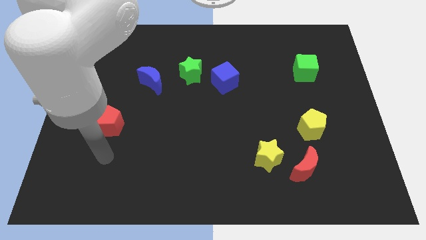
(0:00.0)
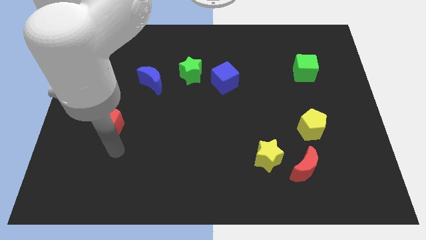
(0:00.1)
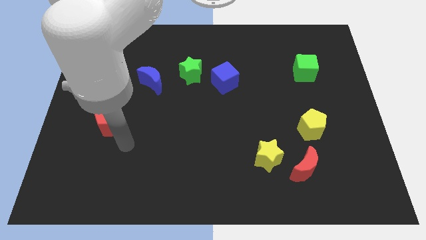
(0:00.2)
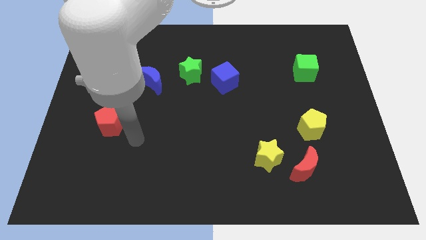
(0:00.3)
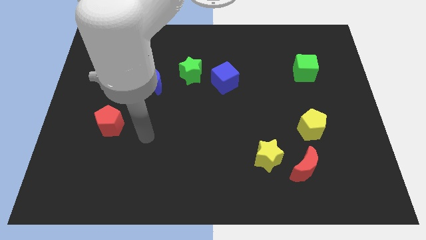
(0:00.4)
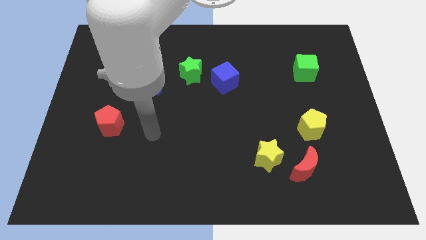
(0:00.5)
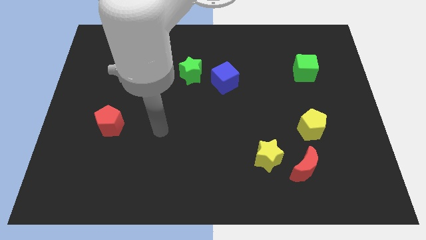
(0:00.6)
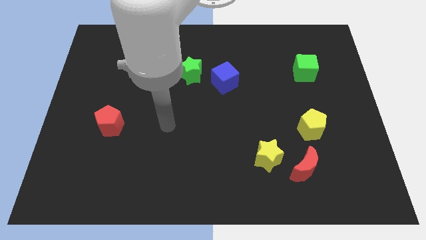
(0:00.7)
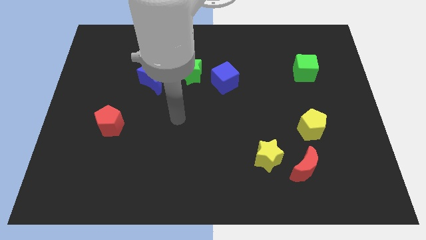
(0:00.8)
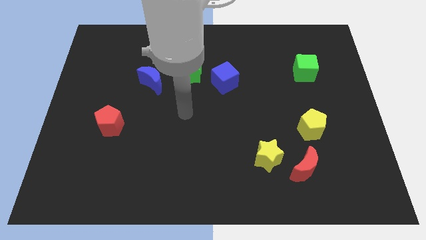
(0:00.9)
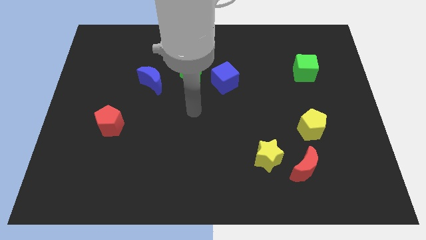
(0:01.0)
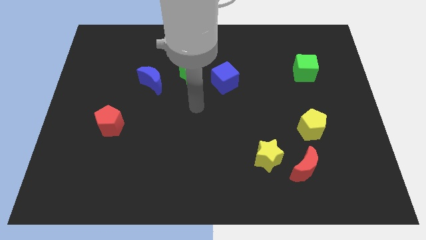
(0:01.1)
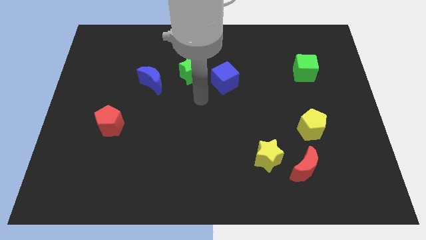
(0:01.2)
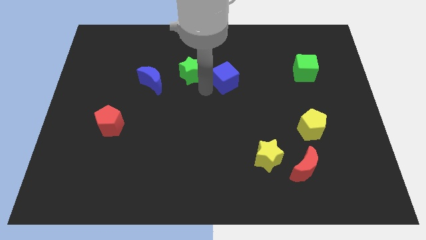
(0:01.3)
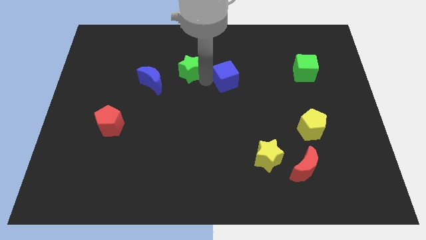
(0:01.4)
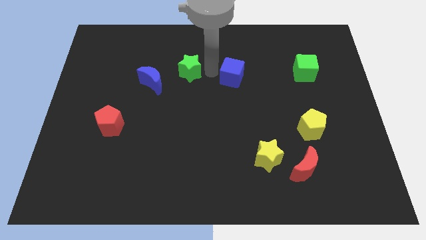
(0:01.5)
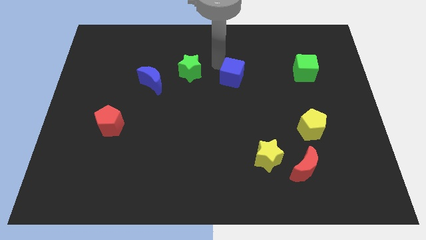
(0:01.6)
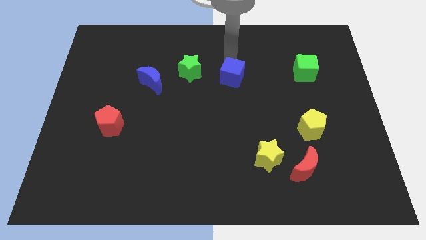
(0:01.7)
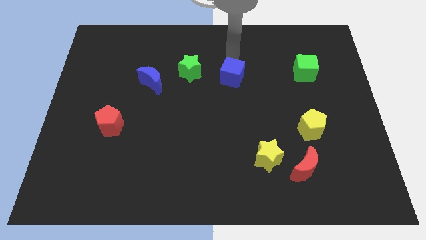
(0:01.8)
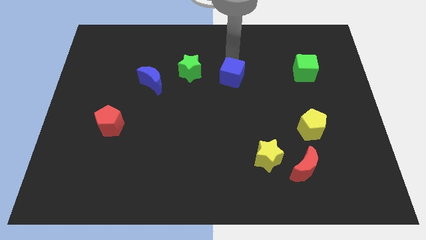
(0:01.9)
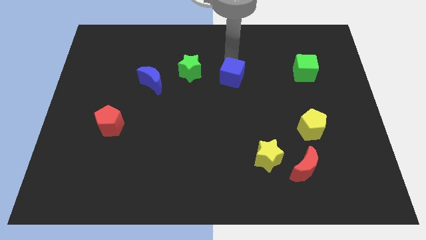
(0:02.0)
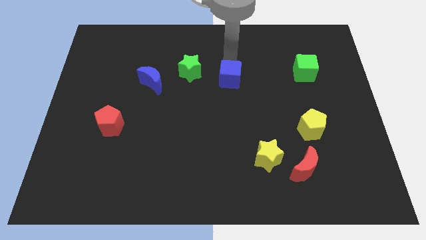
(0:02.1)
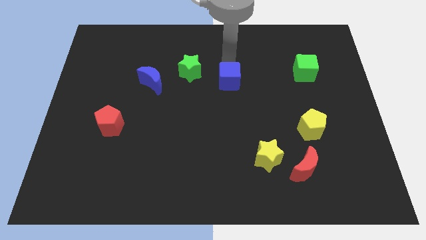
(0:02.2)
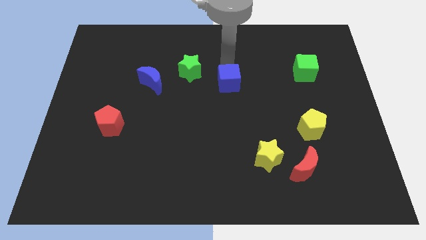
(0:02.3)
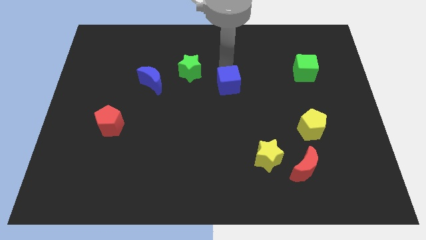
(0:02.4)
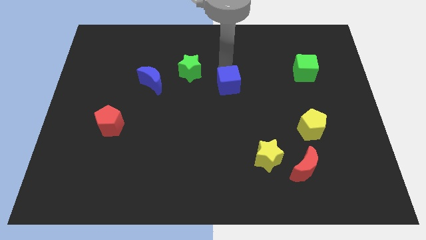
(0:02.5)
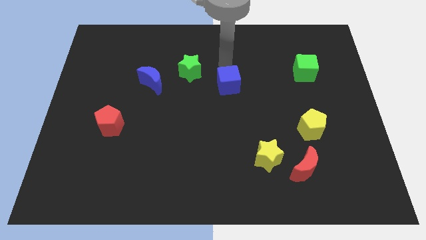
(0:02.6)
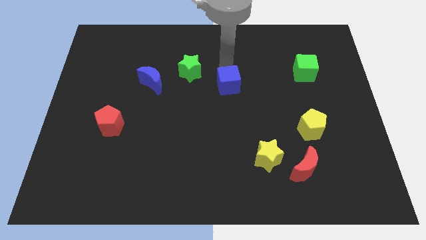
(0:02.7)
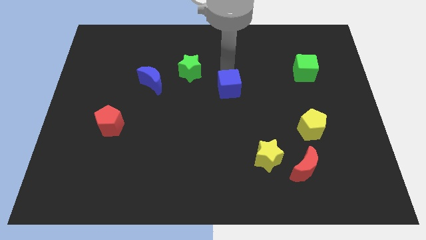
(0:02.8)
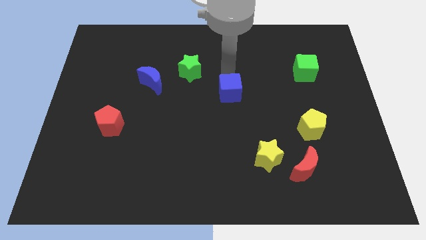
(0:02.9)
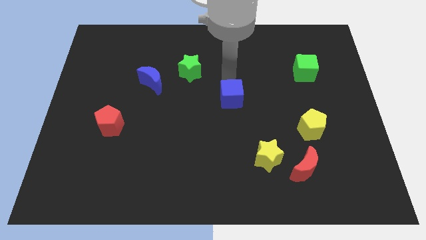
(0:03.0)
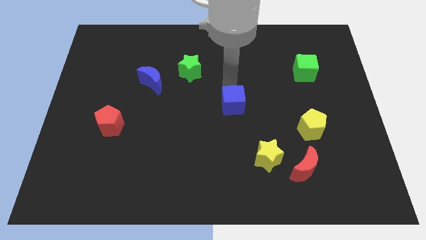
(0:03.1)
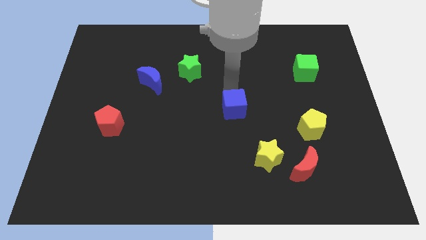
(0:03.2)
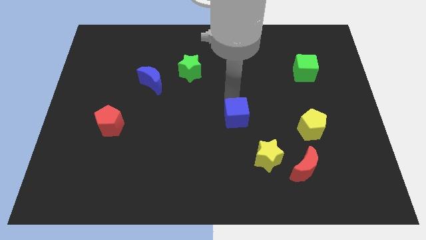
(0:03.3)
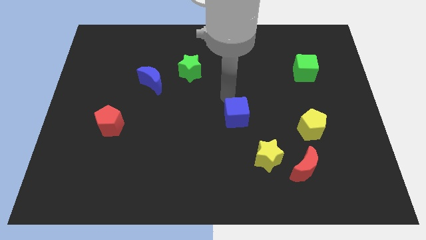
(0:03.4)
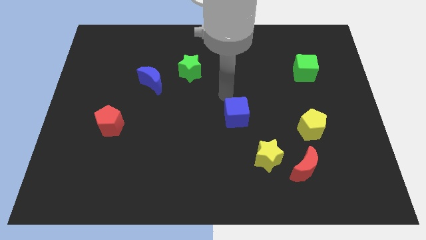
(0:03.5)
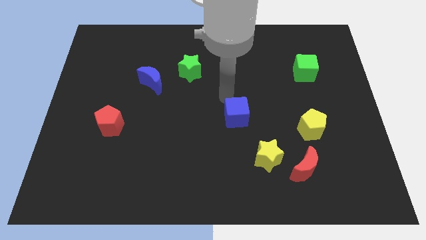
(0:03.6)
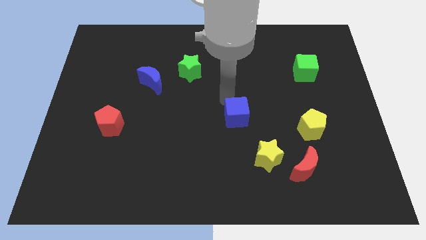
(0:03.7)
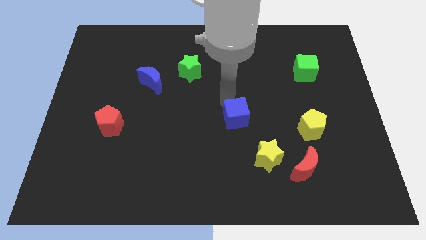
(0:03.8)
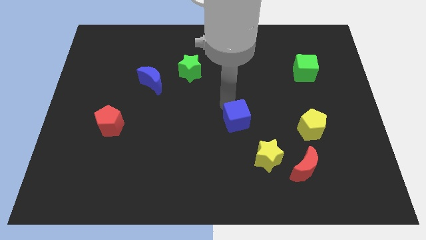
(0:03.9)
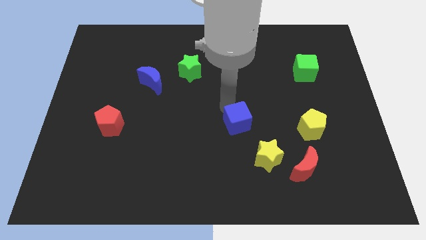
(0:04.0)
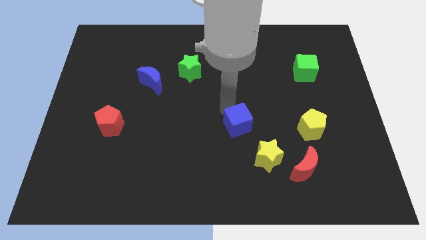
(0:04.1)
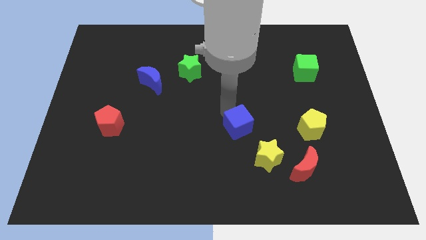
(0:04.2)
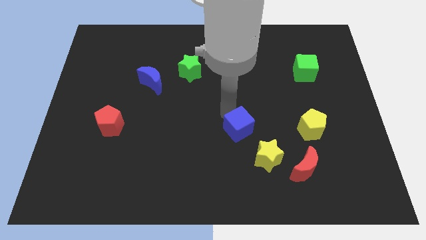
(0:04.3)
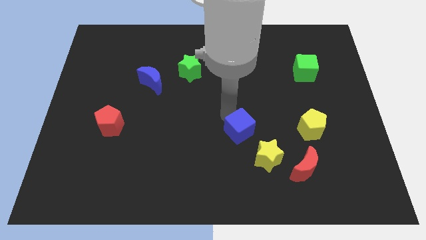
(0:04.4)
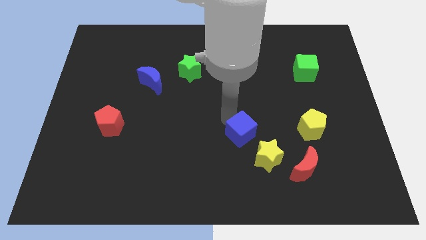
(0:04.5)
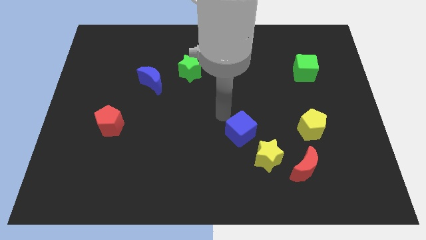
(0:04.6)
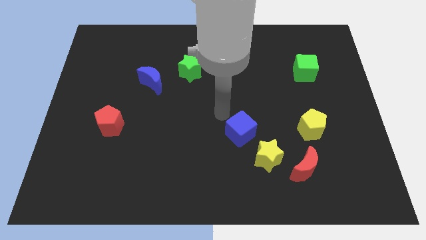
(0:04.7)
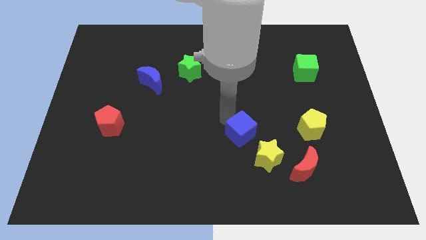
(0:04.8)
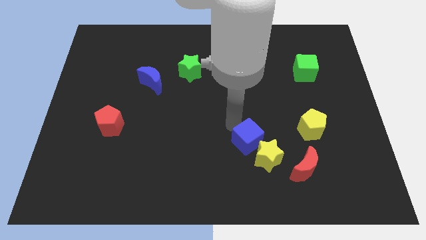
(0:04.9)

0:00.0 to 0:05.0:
push the blue cube towards the yellow star

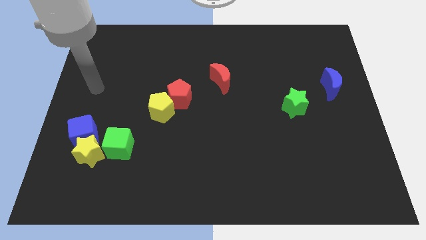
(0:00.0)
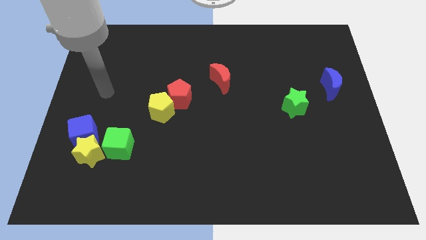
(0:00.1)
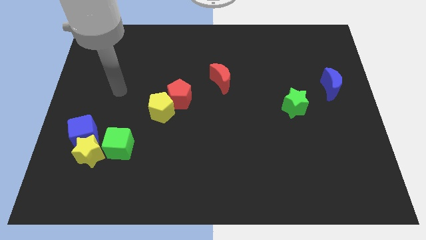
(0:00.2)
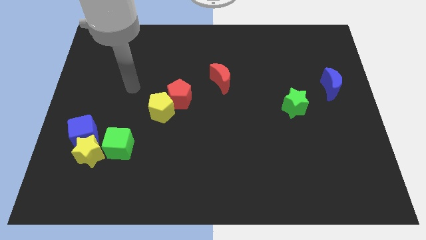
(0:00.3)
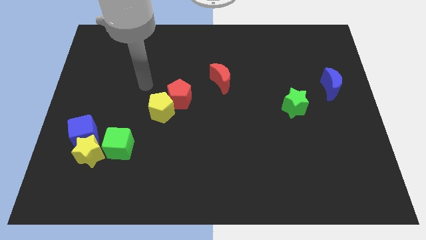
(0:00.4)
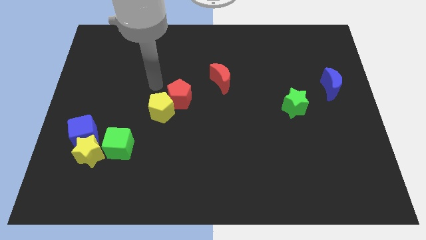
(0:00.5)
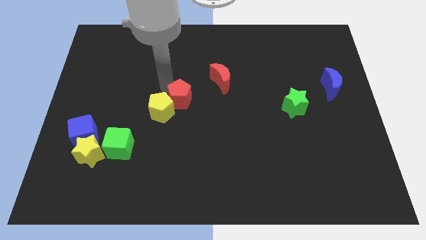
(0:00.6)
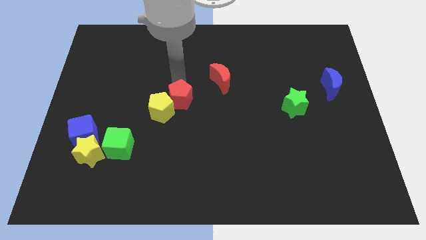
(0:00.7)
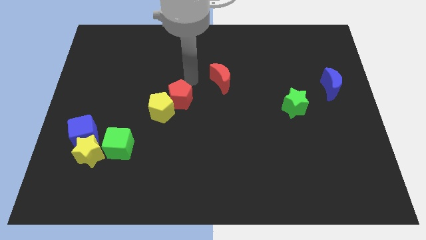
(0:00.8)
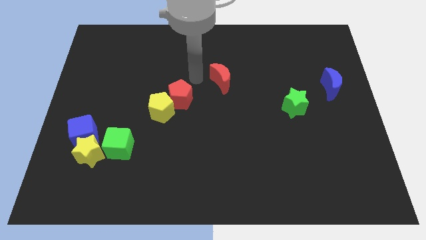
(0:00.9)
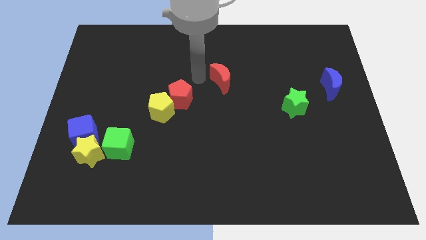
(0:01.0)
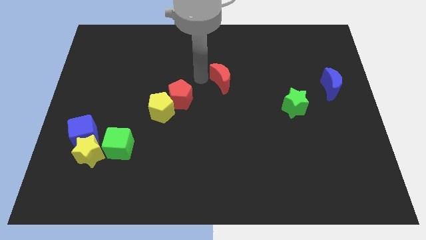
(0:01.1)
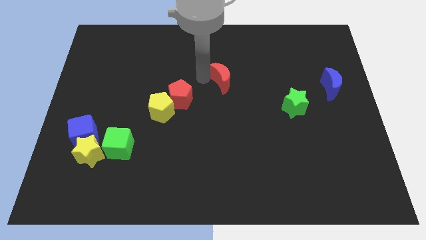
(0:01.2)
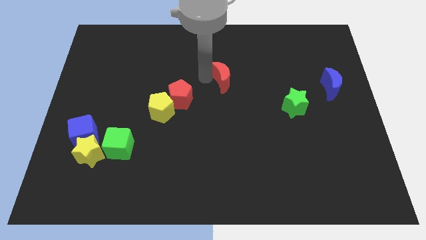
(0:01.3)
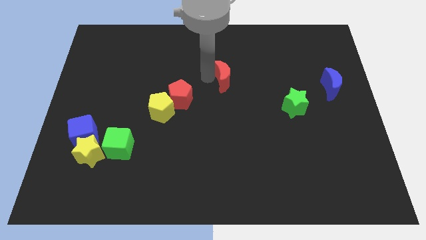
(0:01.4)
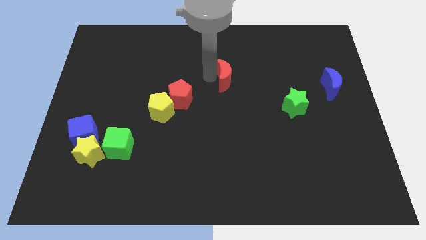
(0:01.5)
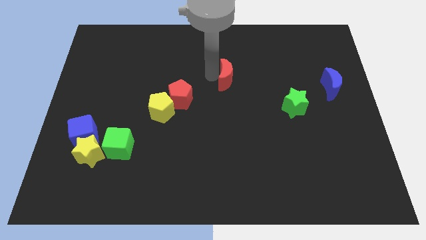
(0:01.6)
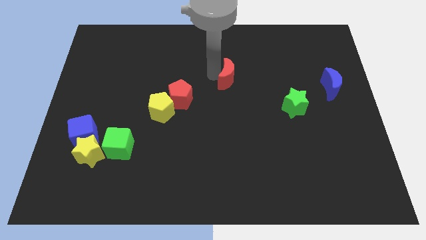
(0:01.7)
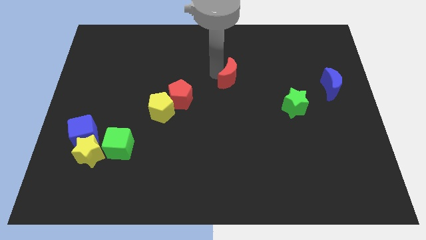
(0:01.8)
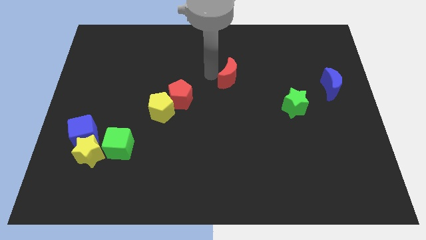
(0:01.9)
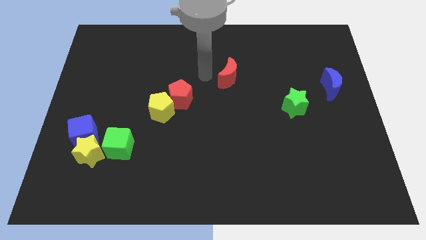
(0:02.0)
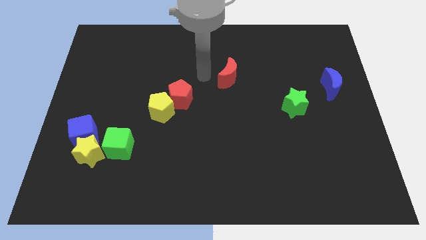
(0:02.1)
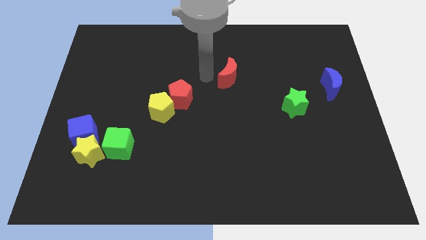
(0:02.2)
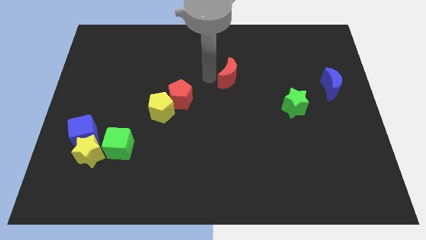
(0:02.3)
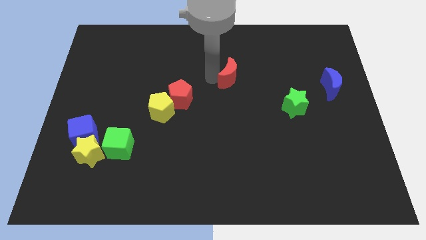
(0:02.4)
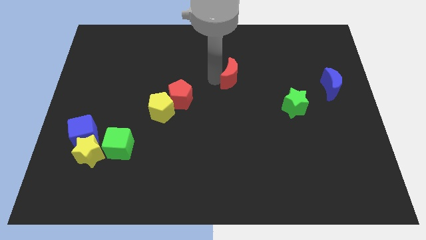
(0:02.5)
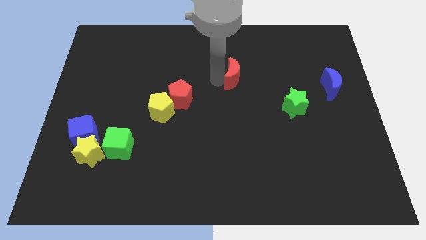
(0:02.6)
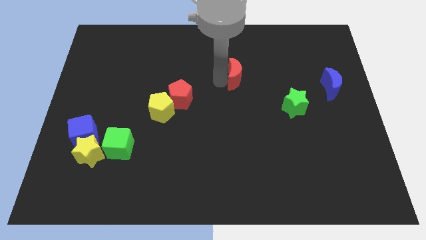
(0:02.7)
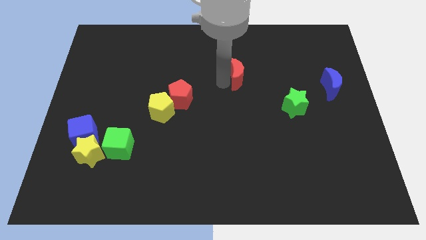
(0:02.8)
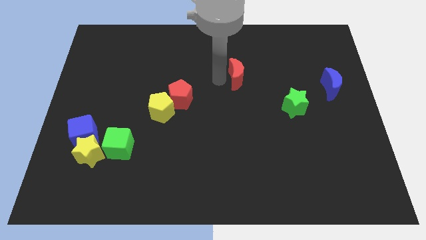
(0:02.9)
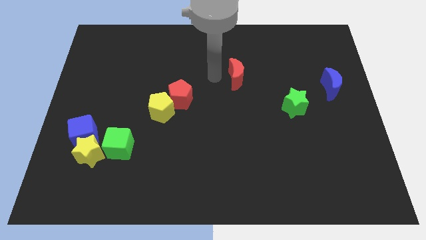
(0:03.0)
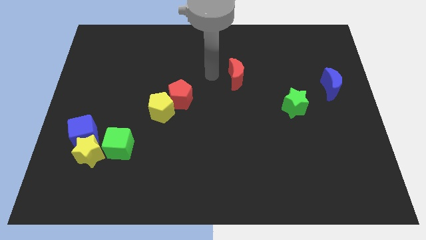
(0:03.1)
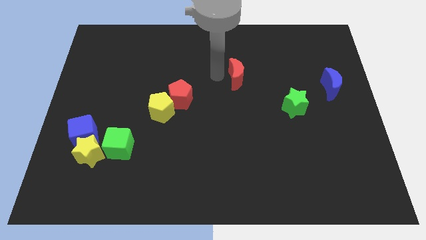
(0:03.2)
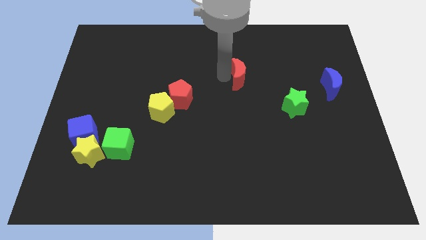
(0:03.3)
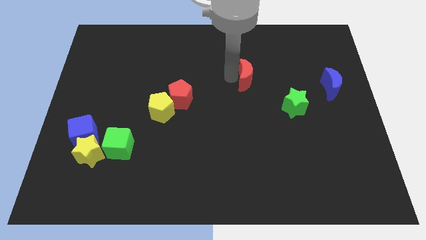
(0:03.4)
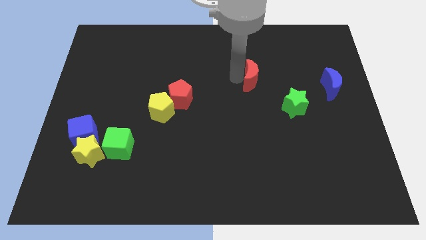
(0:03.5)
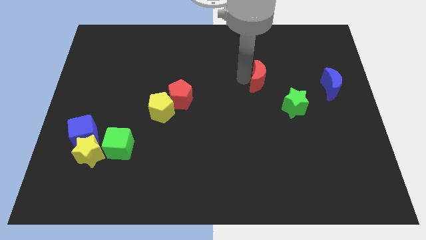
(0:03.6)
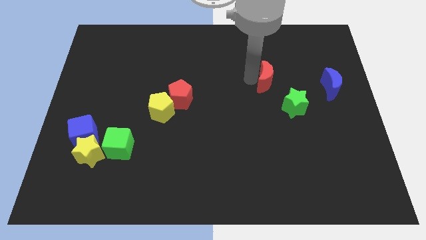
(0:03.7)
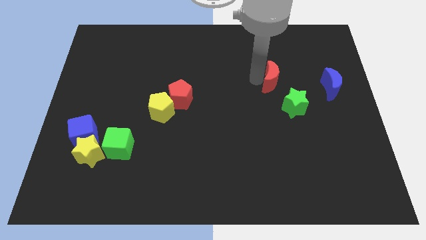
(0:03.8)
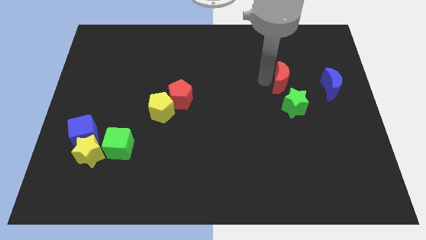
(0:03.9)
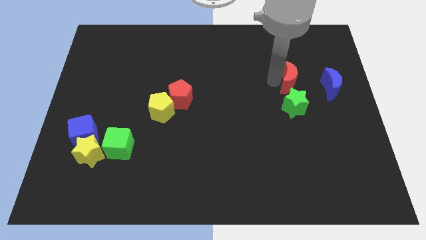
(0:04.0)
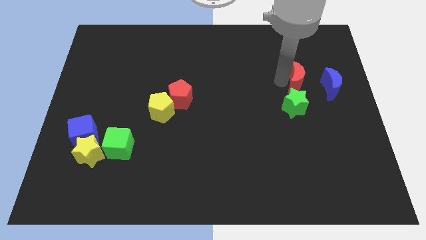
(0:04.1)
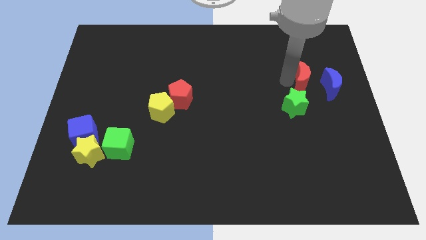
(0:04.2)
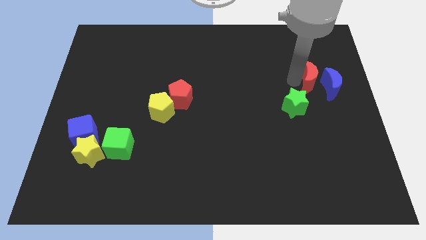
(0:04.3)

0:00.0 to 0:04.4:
slide the red moon to the blue moon
